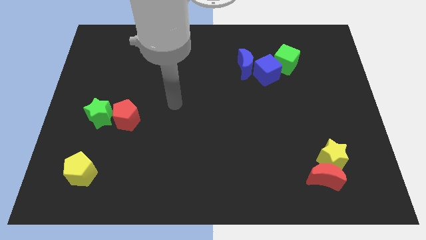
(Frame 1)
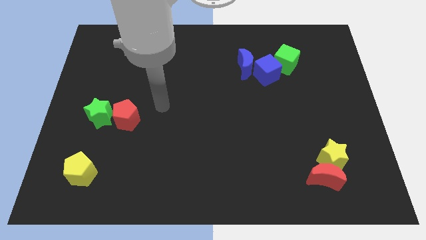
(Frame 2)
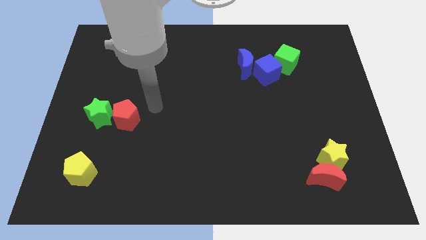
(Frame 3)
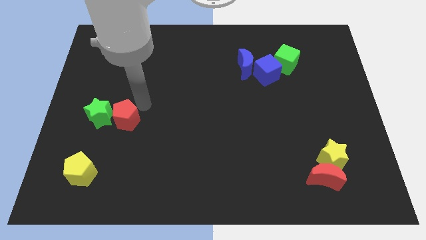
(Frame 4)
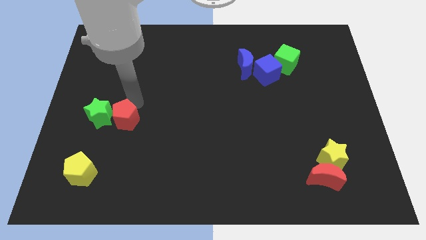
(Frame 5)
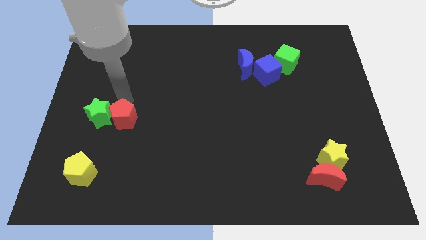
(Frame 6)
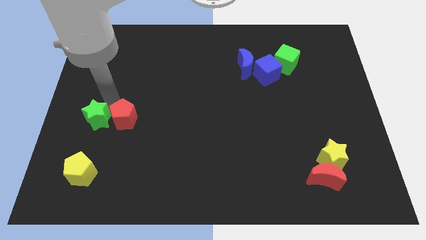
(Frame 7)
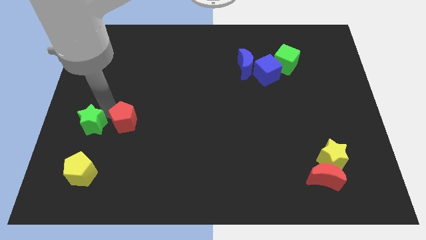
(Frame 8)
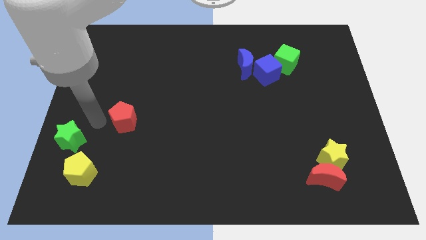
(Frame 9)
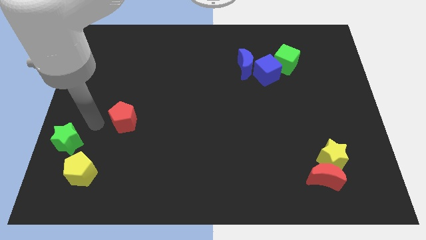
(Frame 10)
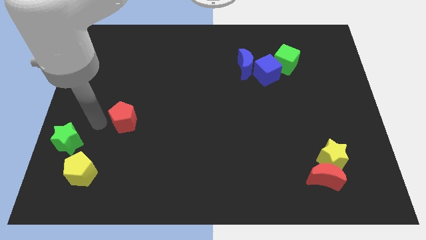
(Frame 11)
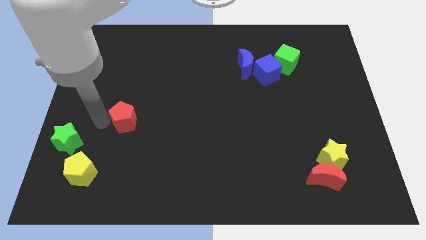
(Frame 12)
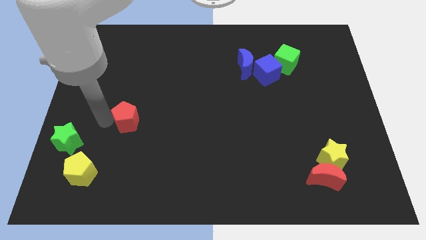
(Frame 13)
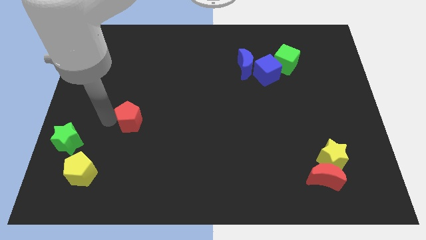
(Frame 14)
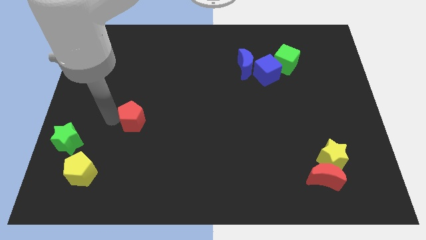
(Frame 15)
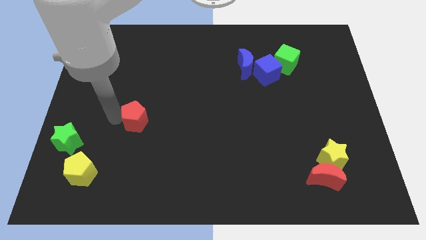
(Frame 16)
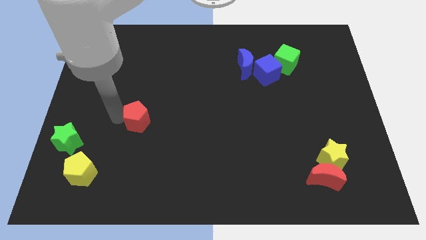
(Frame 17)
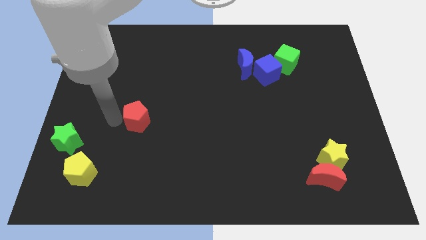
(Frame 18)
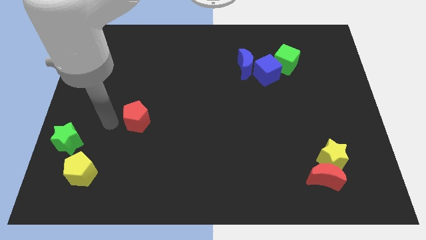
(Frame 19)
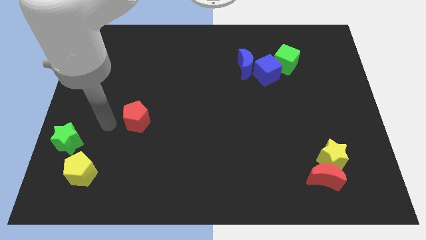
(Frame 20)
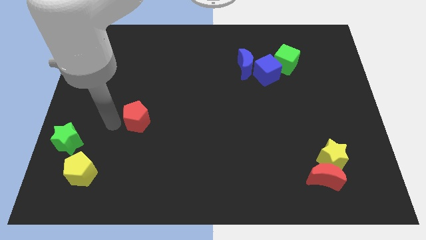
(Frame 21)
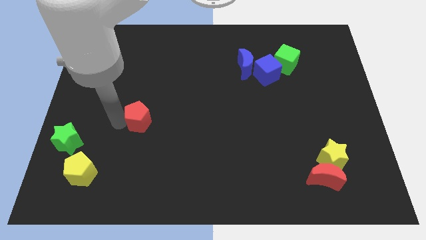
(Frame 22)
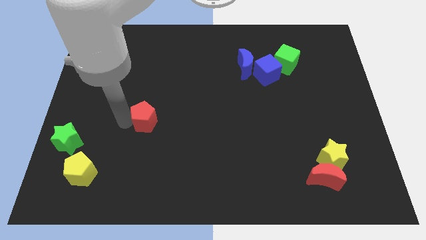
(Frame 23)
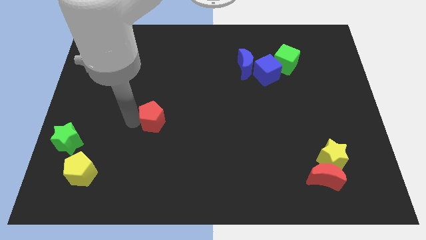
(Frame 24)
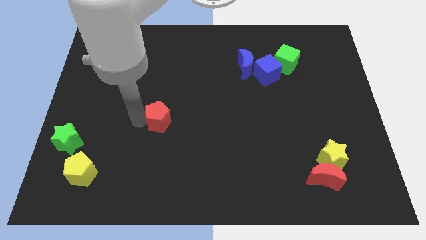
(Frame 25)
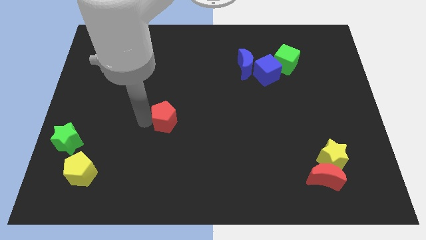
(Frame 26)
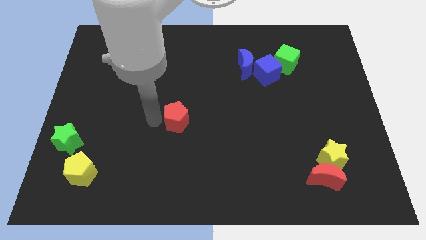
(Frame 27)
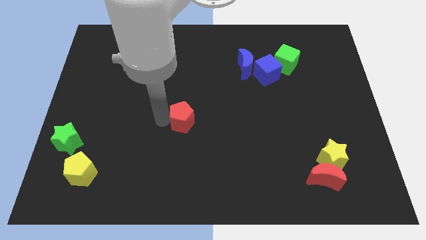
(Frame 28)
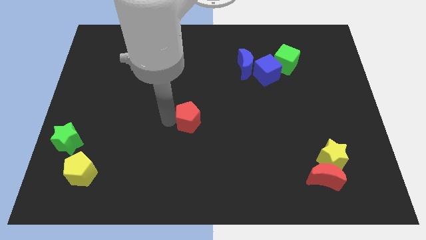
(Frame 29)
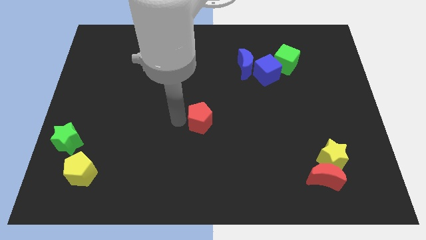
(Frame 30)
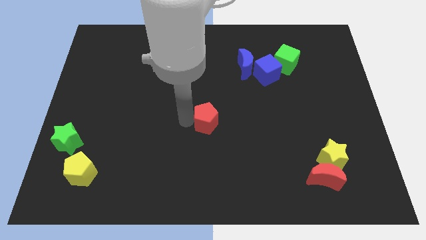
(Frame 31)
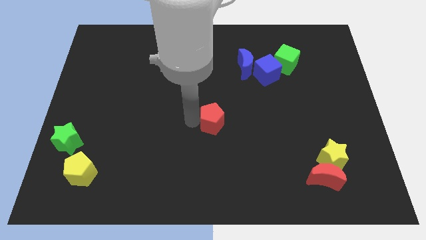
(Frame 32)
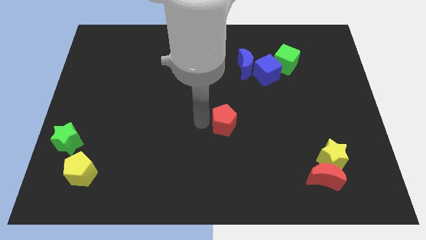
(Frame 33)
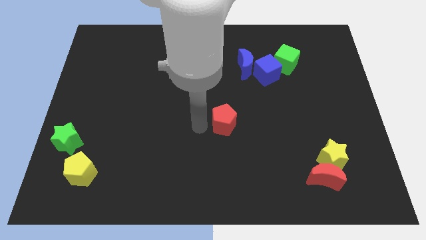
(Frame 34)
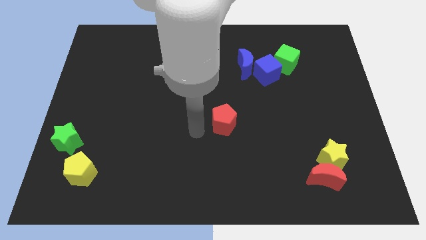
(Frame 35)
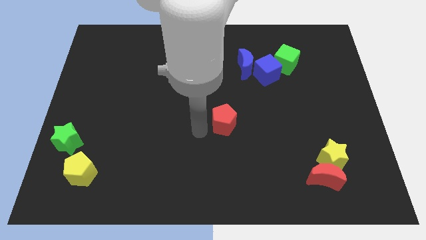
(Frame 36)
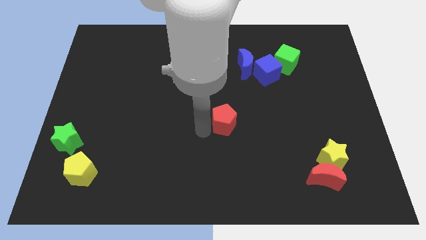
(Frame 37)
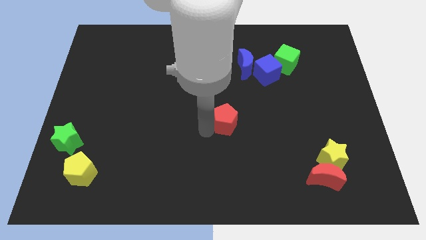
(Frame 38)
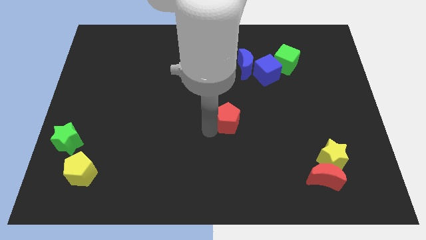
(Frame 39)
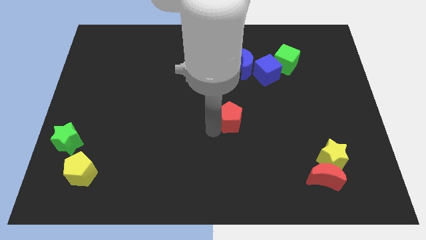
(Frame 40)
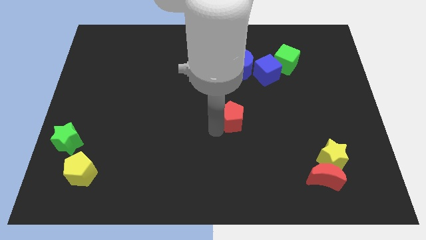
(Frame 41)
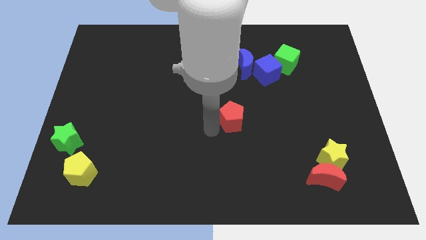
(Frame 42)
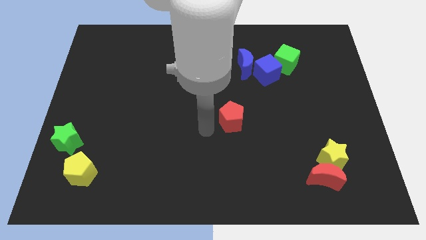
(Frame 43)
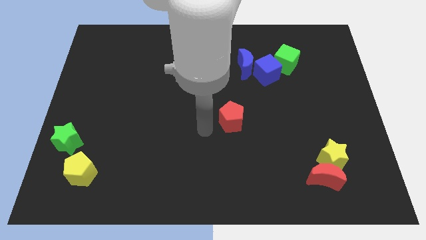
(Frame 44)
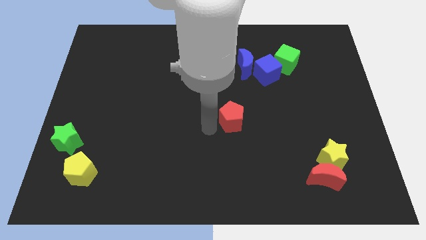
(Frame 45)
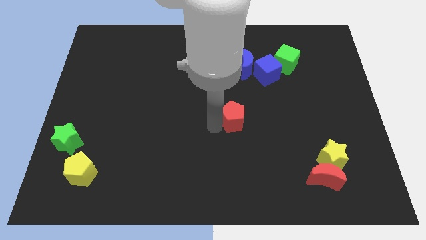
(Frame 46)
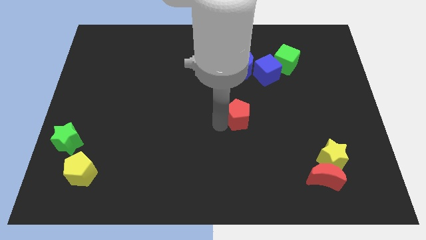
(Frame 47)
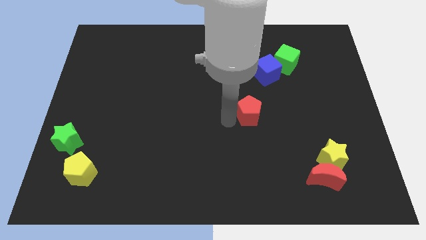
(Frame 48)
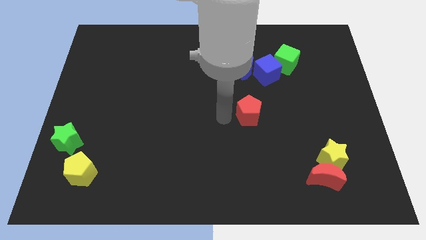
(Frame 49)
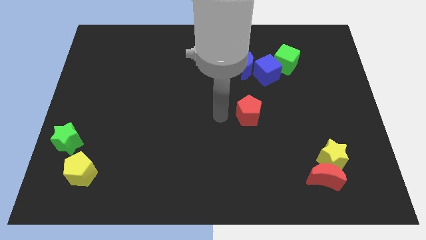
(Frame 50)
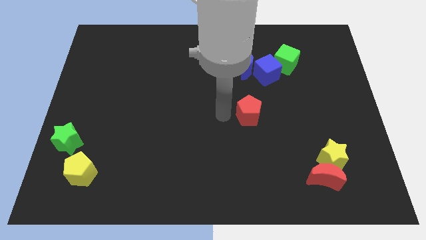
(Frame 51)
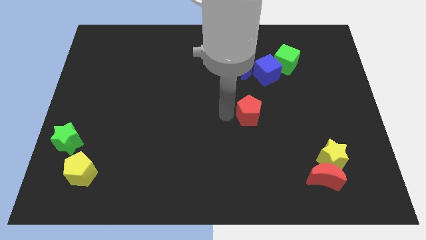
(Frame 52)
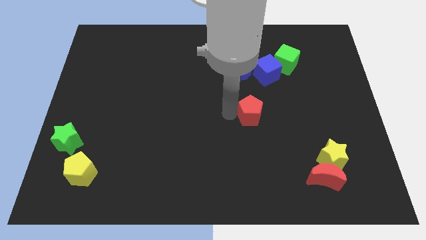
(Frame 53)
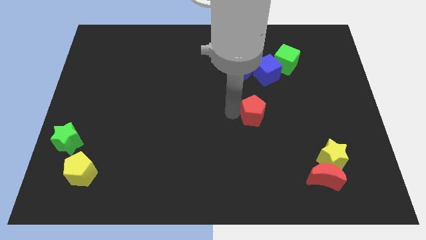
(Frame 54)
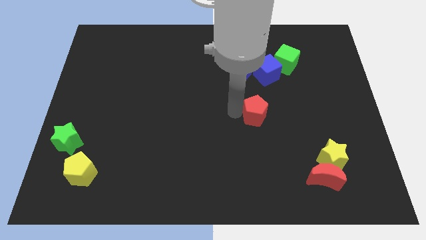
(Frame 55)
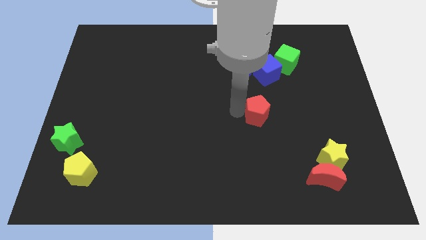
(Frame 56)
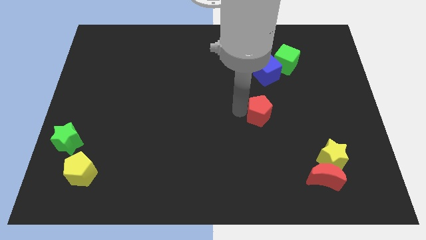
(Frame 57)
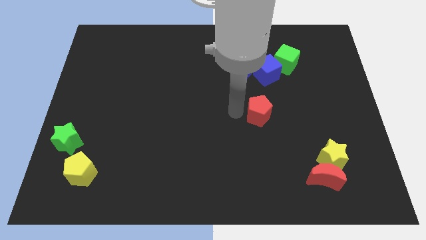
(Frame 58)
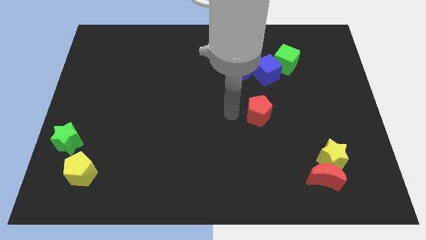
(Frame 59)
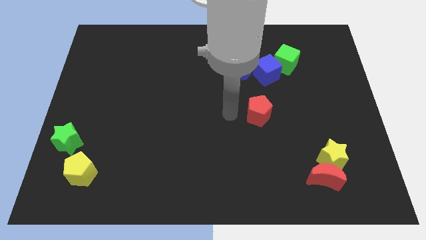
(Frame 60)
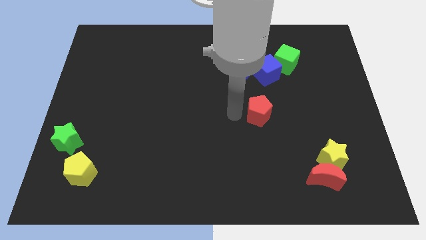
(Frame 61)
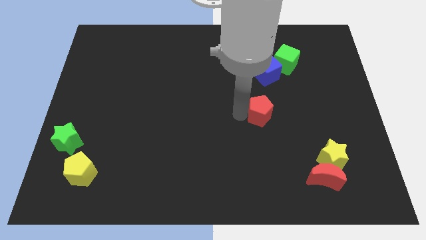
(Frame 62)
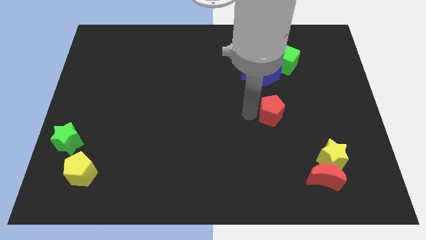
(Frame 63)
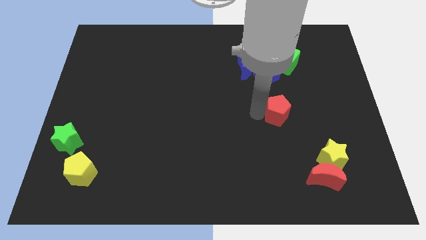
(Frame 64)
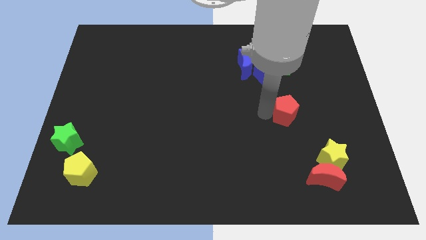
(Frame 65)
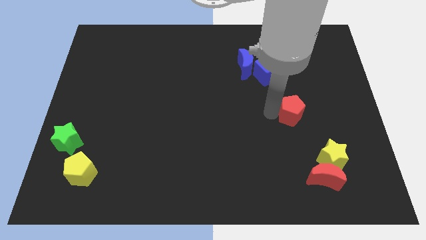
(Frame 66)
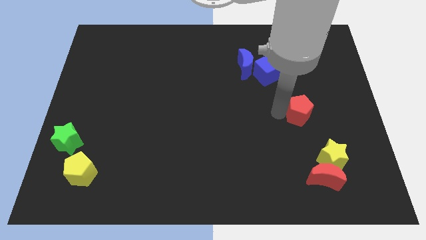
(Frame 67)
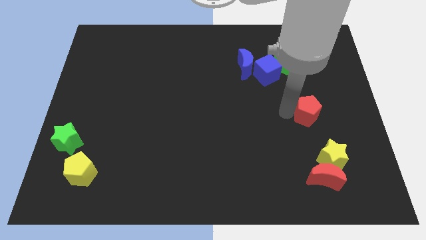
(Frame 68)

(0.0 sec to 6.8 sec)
move the red pentagon to the top side of the yellow star
